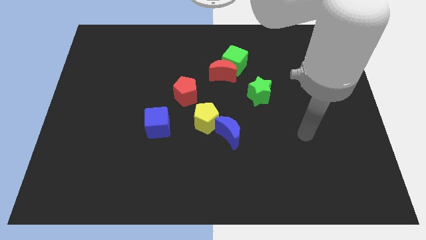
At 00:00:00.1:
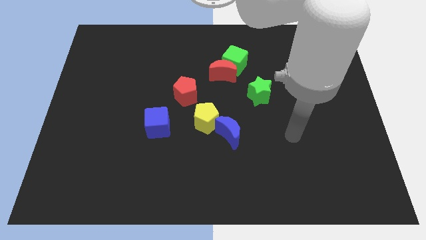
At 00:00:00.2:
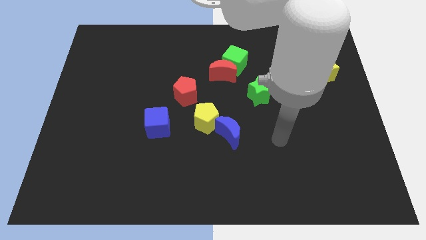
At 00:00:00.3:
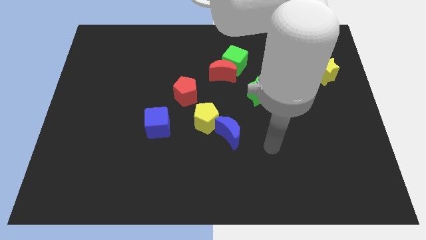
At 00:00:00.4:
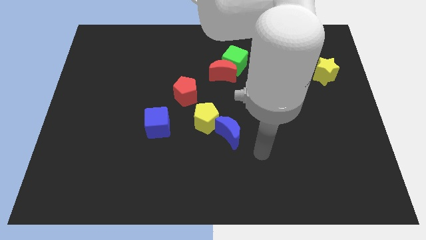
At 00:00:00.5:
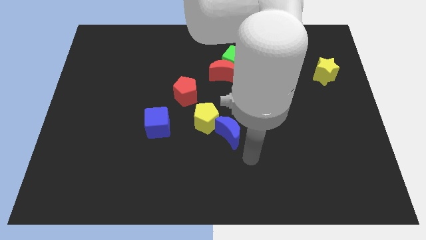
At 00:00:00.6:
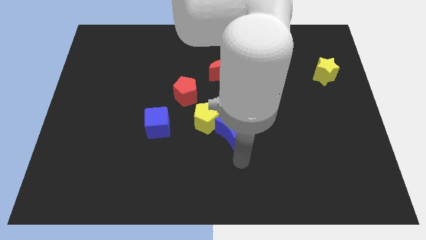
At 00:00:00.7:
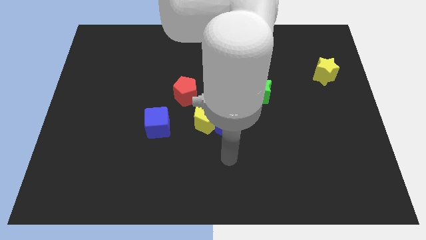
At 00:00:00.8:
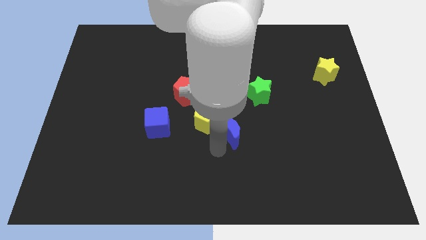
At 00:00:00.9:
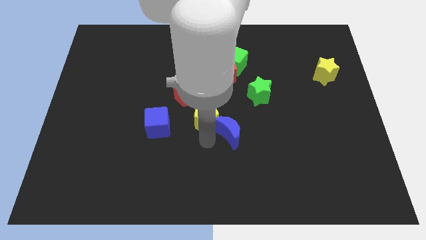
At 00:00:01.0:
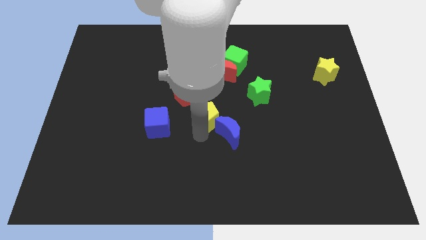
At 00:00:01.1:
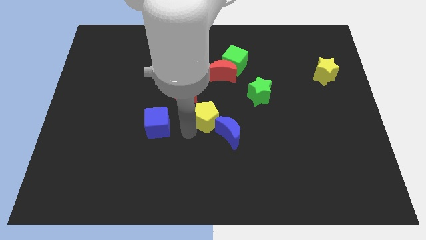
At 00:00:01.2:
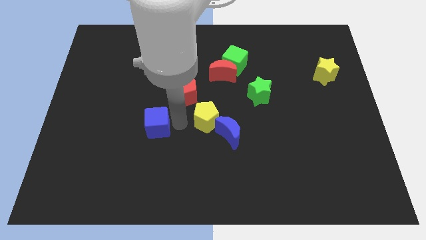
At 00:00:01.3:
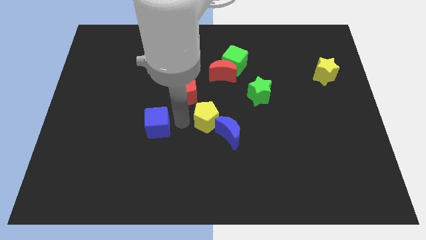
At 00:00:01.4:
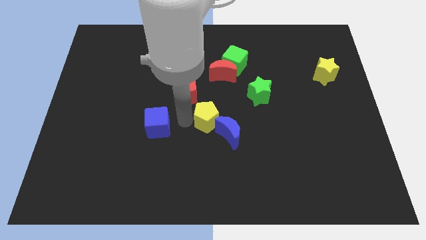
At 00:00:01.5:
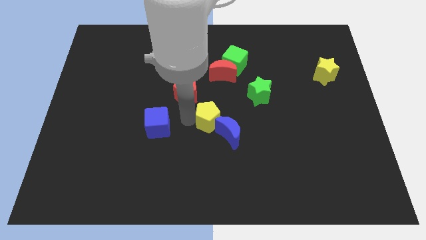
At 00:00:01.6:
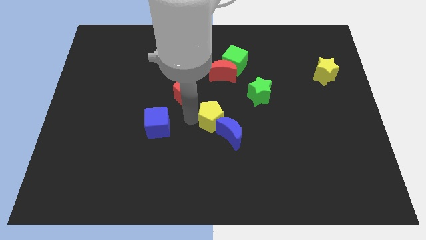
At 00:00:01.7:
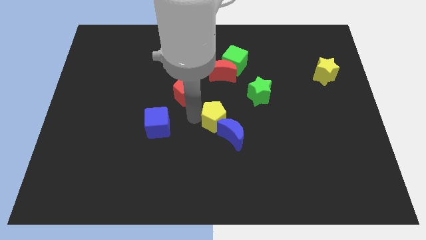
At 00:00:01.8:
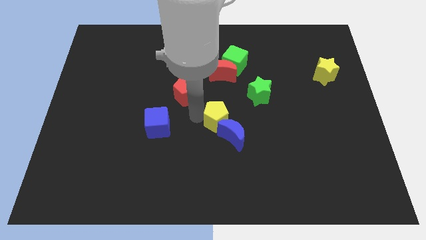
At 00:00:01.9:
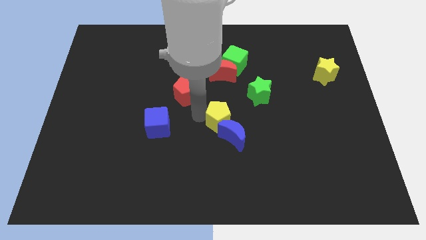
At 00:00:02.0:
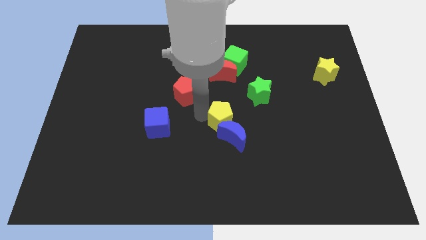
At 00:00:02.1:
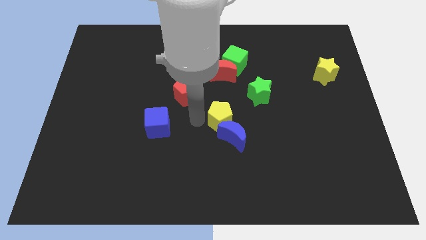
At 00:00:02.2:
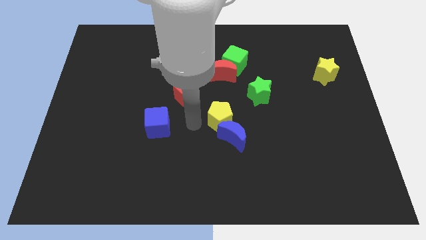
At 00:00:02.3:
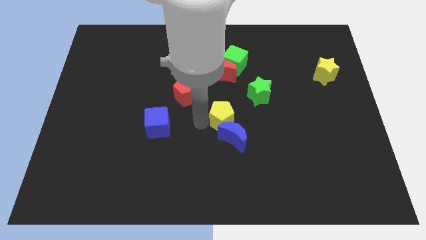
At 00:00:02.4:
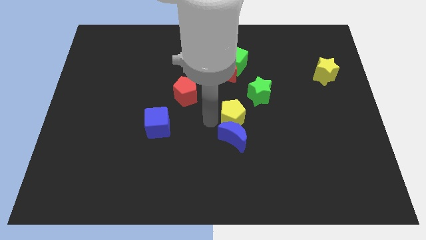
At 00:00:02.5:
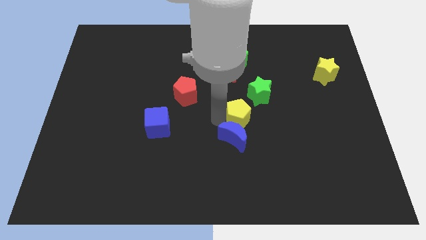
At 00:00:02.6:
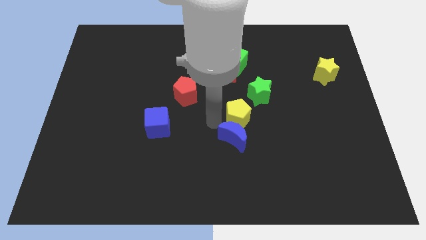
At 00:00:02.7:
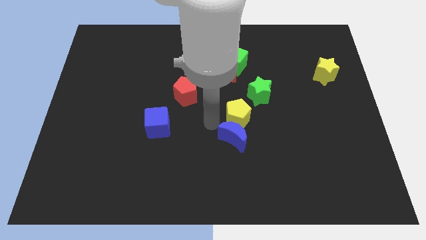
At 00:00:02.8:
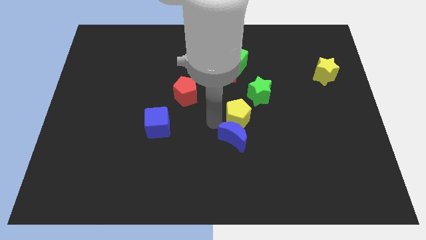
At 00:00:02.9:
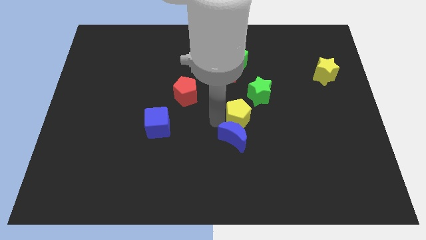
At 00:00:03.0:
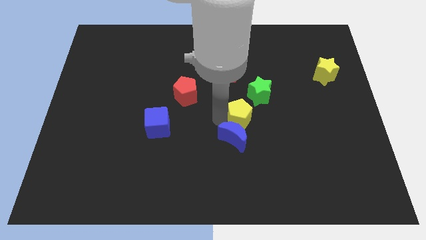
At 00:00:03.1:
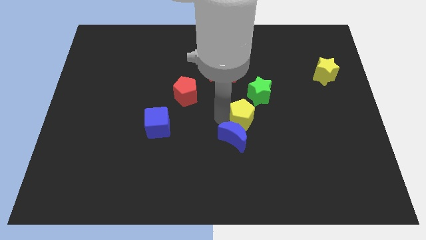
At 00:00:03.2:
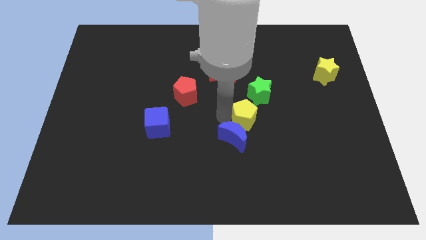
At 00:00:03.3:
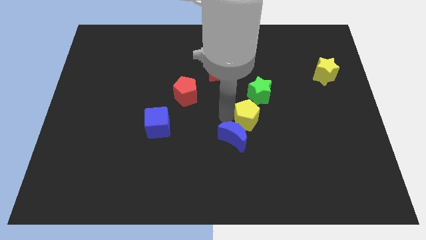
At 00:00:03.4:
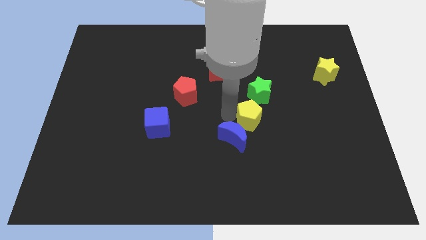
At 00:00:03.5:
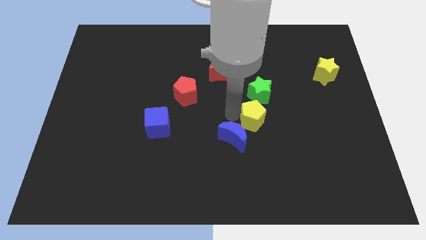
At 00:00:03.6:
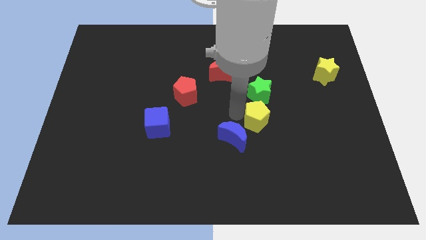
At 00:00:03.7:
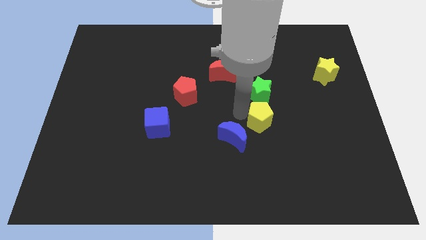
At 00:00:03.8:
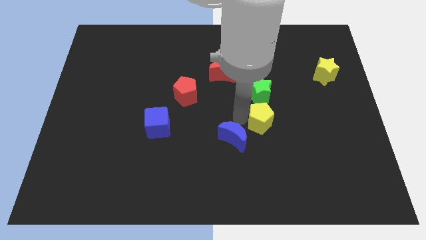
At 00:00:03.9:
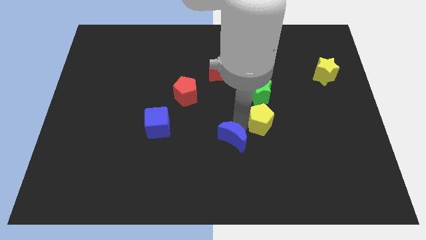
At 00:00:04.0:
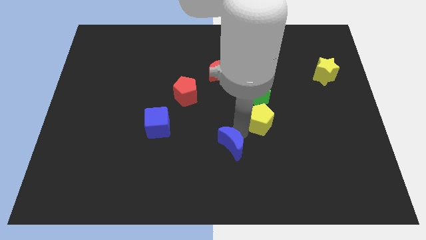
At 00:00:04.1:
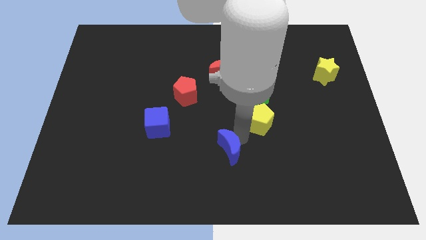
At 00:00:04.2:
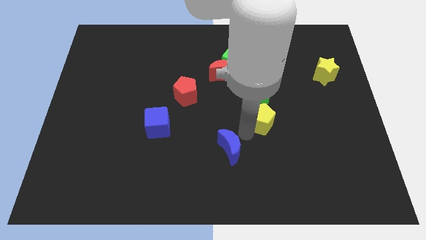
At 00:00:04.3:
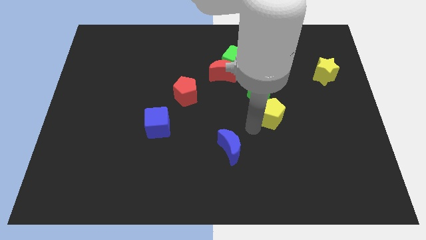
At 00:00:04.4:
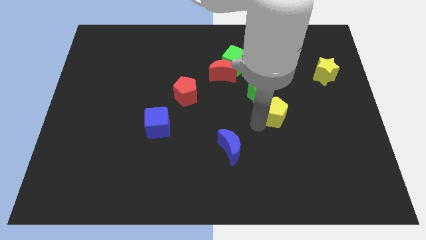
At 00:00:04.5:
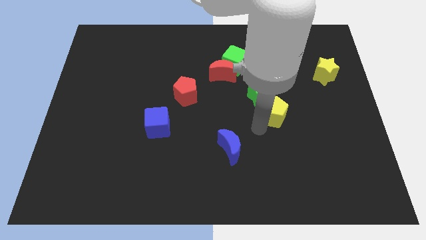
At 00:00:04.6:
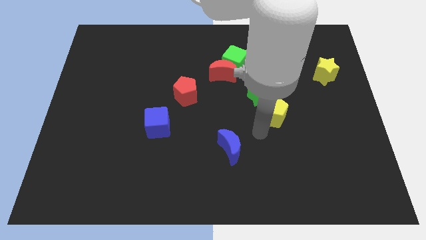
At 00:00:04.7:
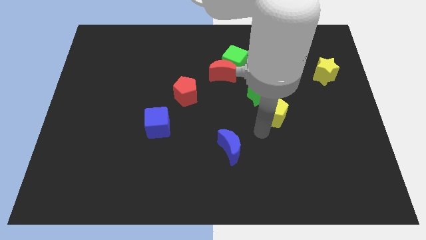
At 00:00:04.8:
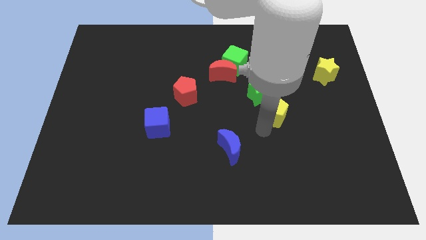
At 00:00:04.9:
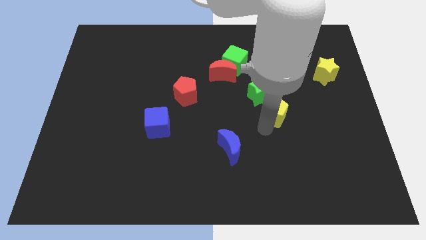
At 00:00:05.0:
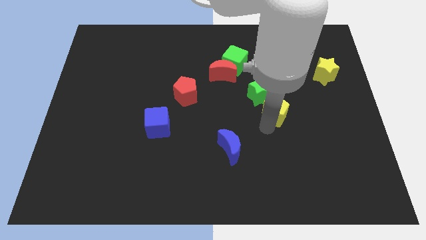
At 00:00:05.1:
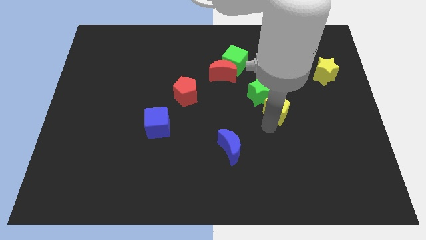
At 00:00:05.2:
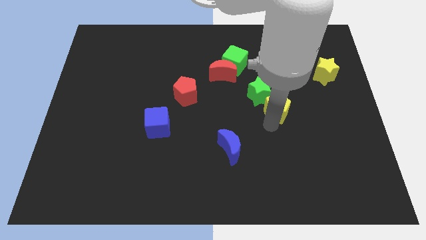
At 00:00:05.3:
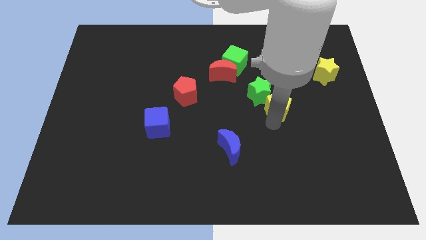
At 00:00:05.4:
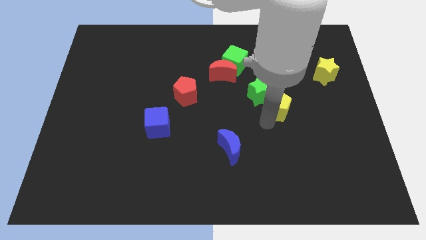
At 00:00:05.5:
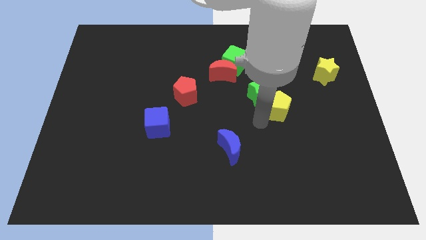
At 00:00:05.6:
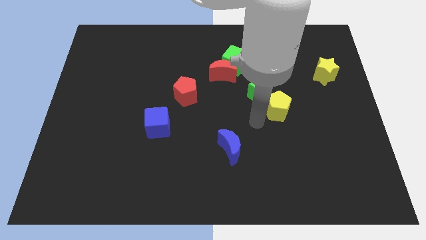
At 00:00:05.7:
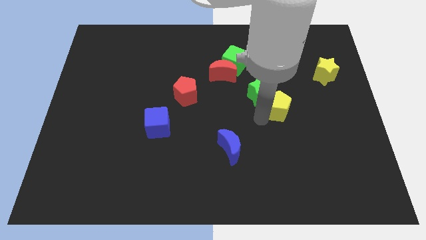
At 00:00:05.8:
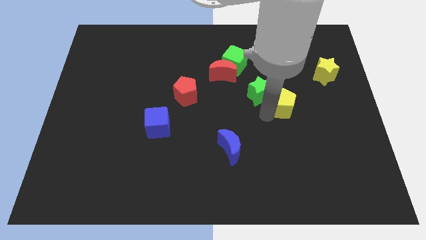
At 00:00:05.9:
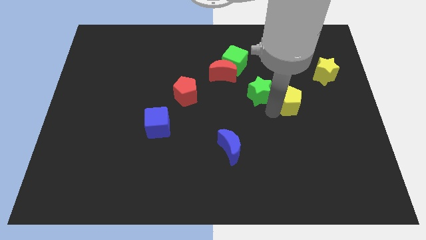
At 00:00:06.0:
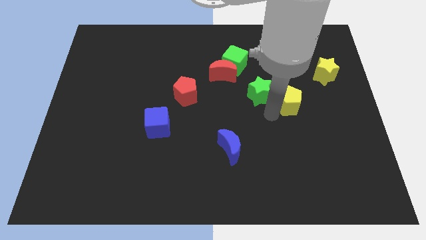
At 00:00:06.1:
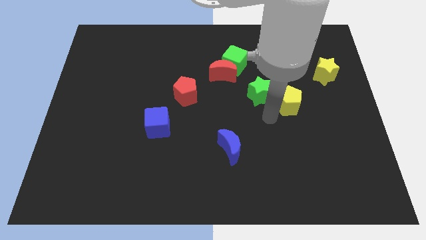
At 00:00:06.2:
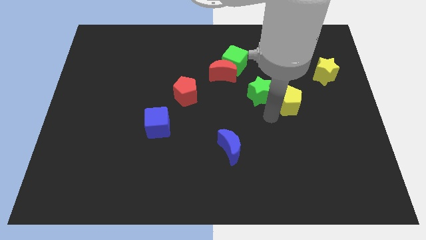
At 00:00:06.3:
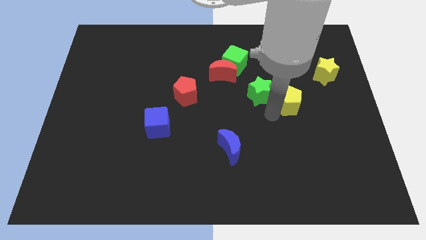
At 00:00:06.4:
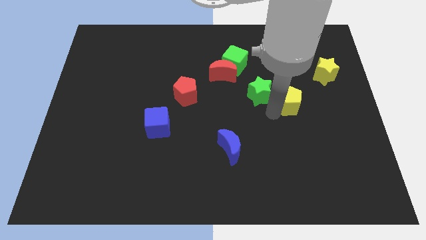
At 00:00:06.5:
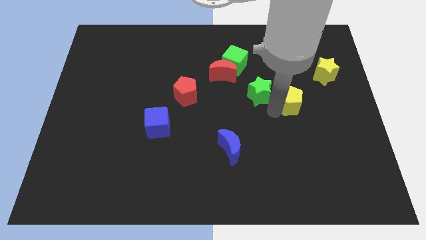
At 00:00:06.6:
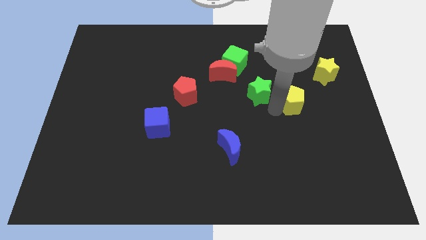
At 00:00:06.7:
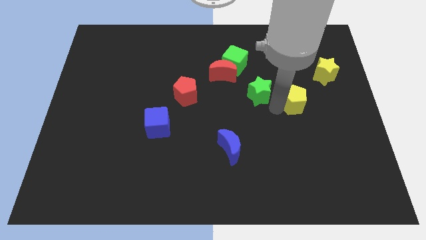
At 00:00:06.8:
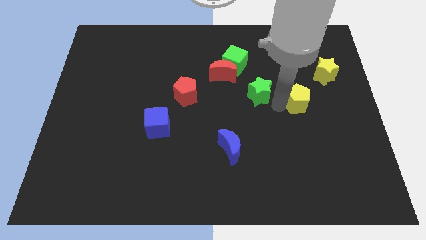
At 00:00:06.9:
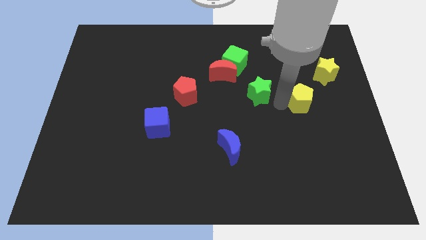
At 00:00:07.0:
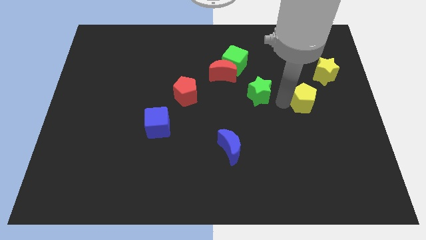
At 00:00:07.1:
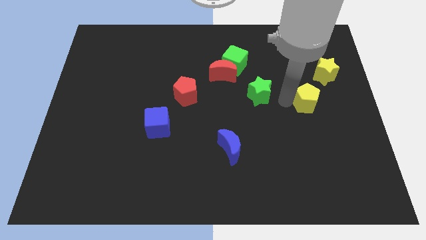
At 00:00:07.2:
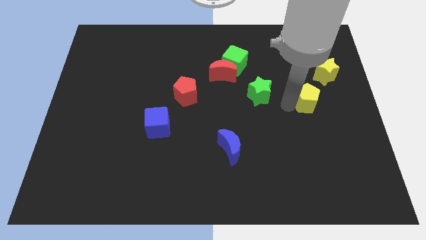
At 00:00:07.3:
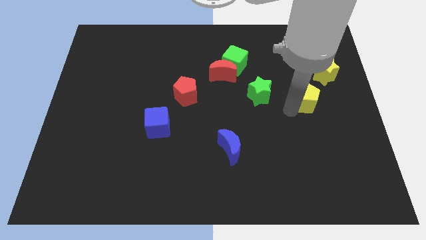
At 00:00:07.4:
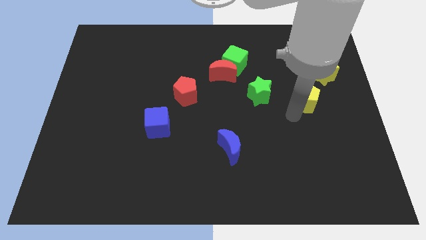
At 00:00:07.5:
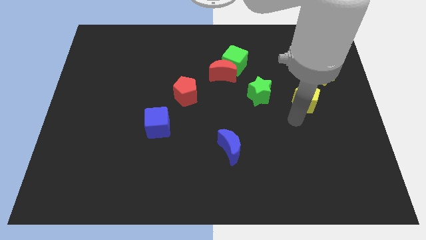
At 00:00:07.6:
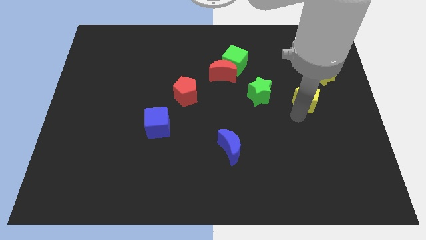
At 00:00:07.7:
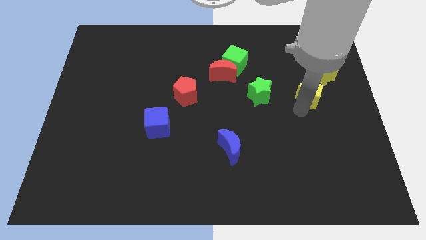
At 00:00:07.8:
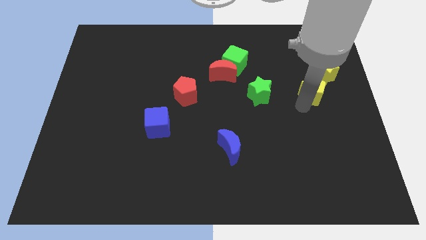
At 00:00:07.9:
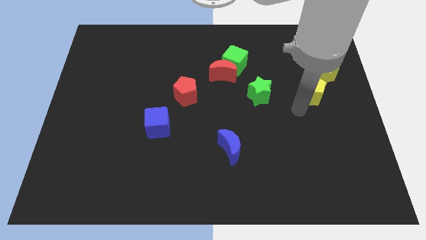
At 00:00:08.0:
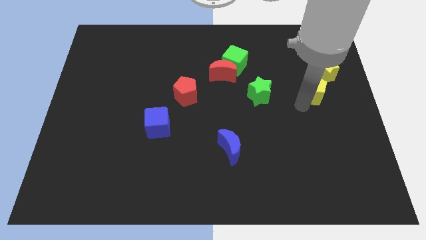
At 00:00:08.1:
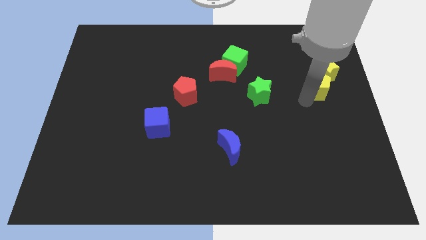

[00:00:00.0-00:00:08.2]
move the yellow pentagon towards the yellow star
